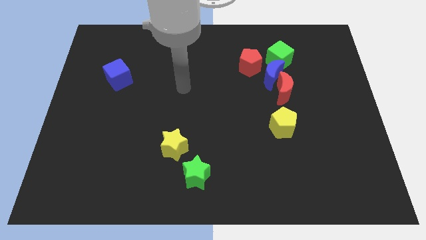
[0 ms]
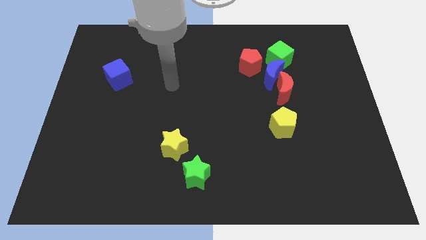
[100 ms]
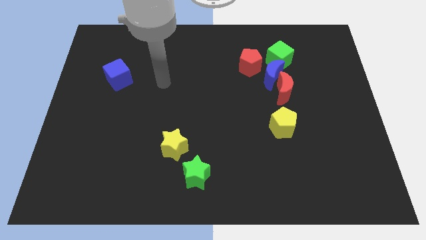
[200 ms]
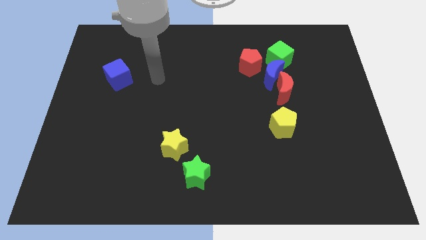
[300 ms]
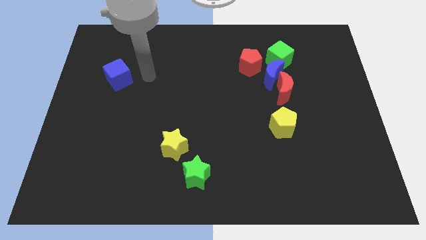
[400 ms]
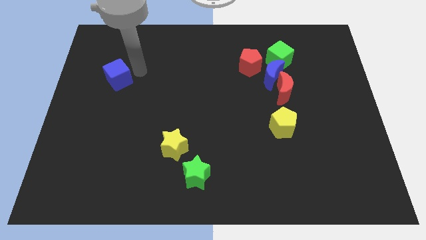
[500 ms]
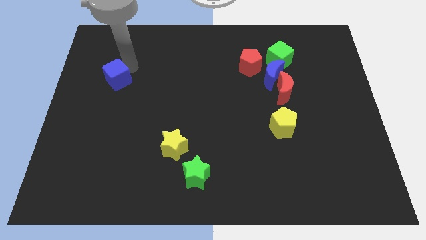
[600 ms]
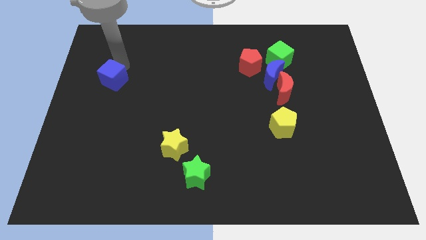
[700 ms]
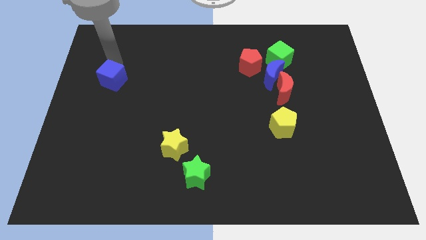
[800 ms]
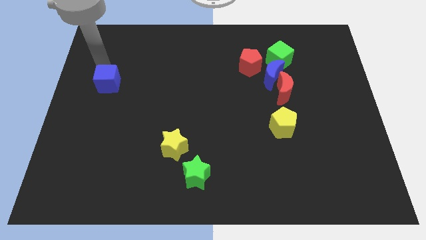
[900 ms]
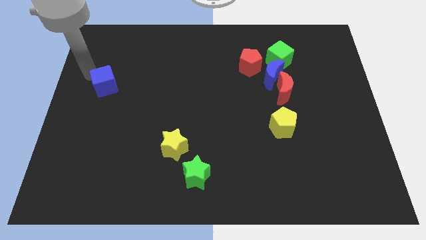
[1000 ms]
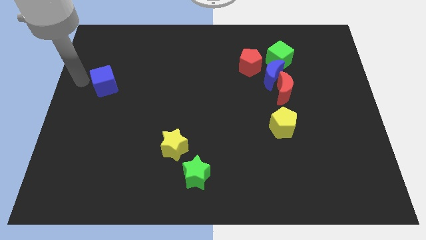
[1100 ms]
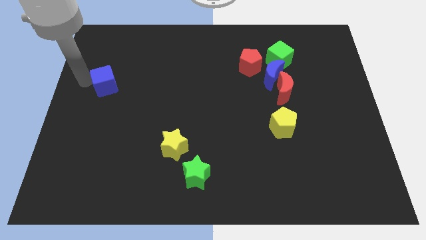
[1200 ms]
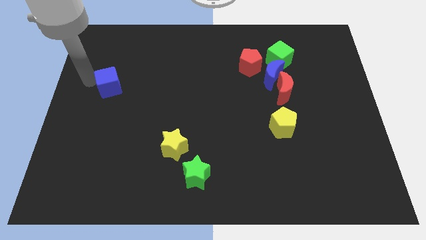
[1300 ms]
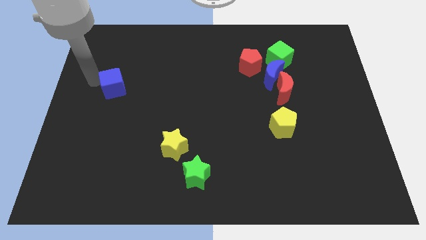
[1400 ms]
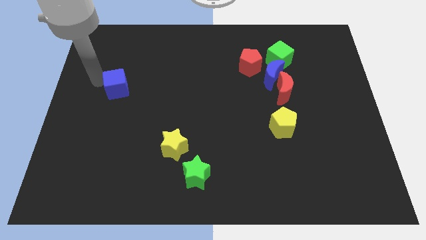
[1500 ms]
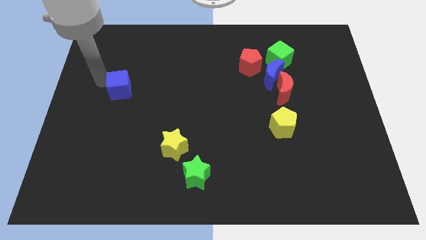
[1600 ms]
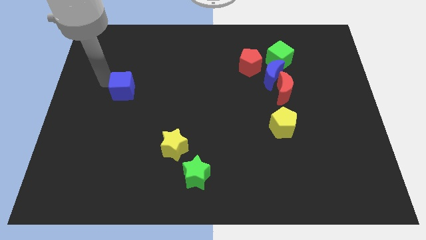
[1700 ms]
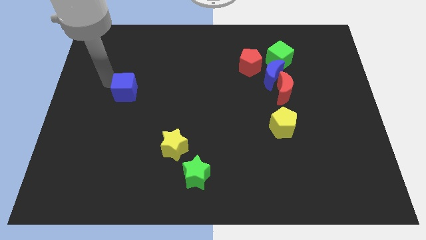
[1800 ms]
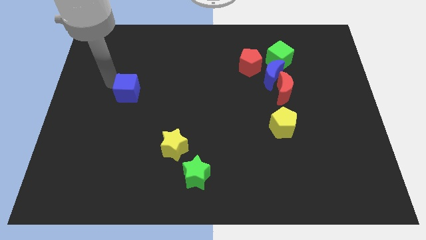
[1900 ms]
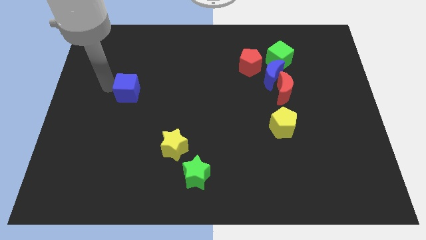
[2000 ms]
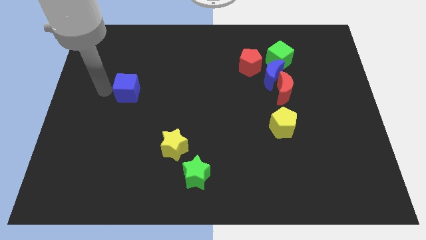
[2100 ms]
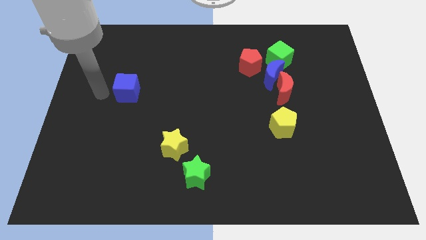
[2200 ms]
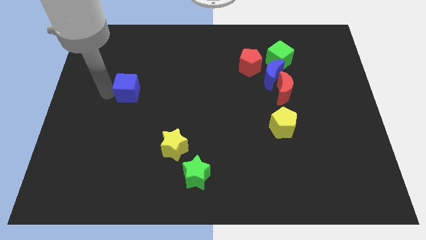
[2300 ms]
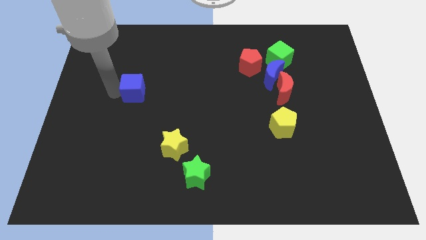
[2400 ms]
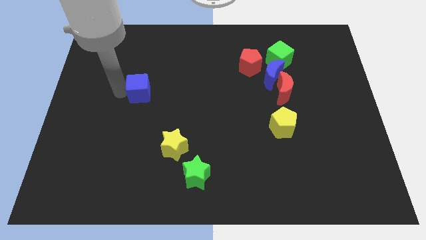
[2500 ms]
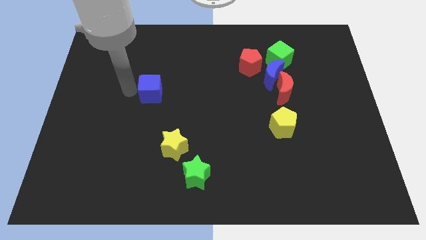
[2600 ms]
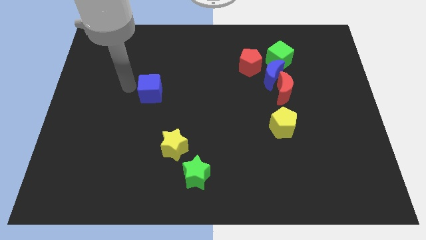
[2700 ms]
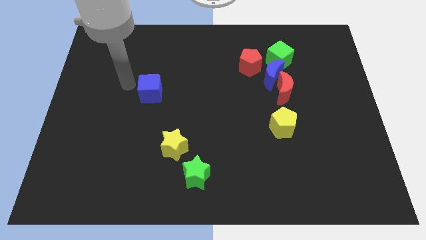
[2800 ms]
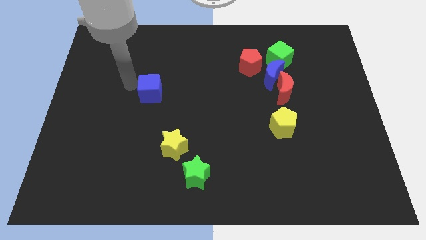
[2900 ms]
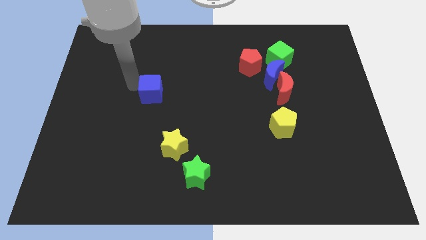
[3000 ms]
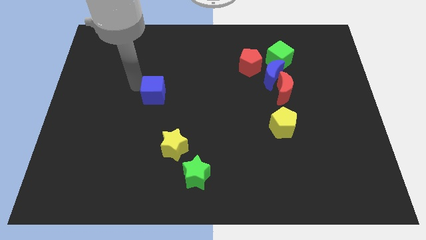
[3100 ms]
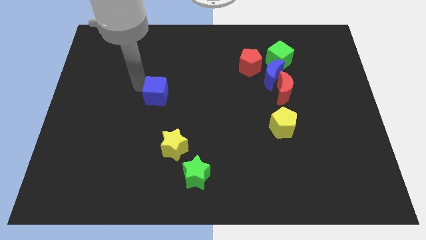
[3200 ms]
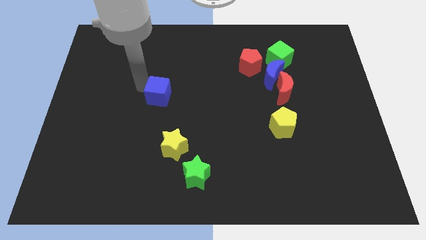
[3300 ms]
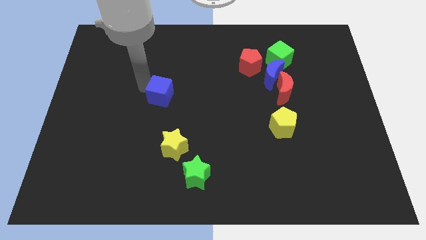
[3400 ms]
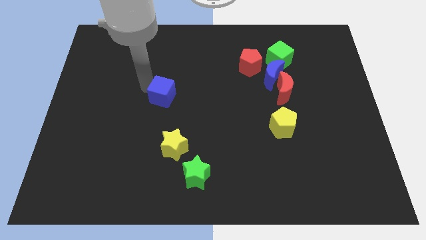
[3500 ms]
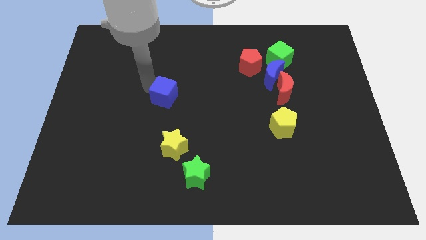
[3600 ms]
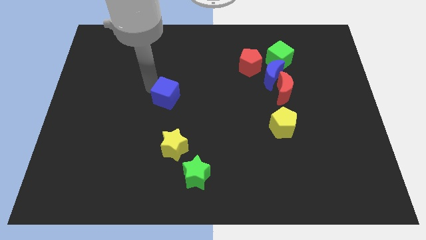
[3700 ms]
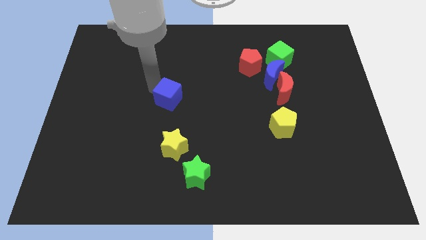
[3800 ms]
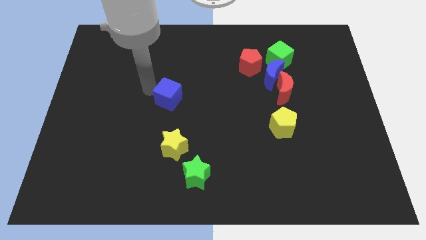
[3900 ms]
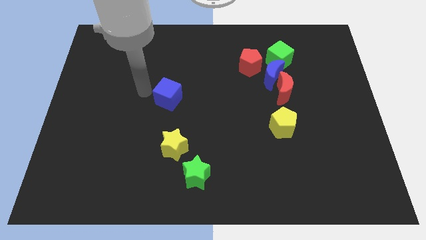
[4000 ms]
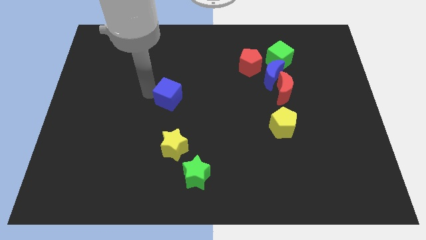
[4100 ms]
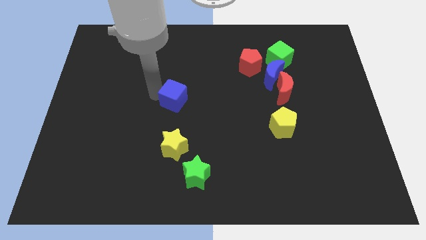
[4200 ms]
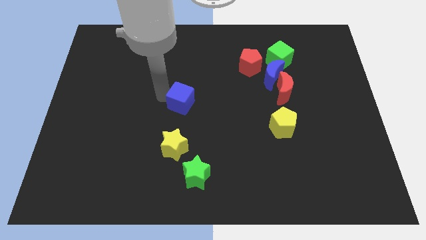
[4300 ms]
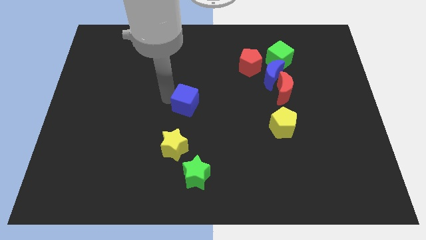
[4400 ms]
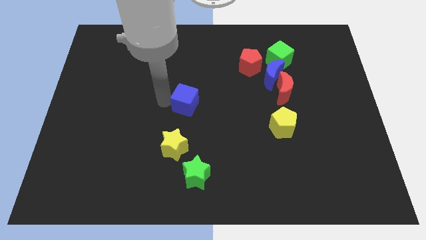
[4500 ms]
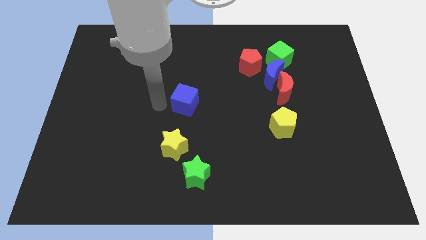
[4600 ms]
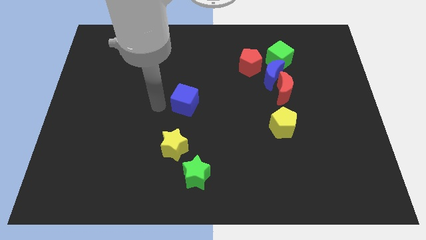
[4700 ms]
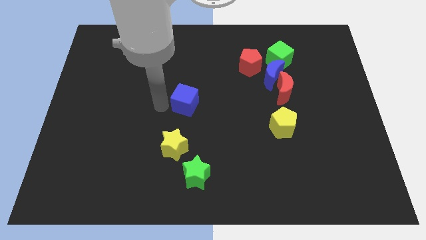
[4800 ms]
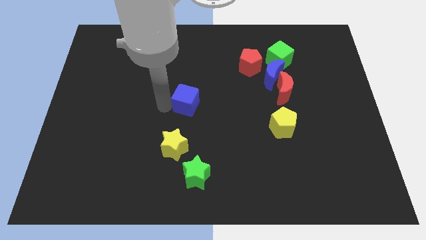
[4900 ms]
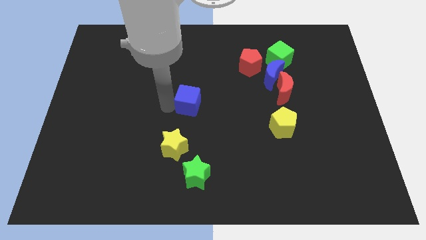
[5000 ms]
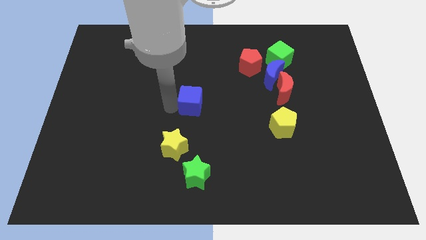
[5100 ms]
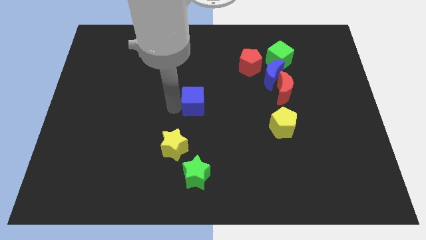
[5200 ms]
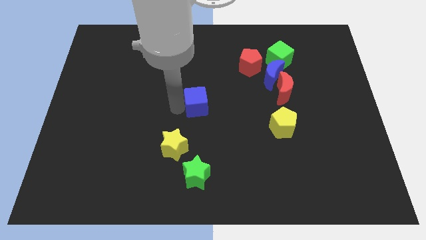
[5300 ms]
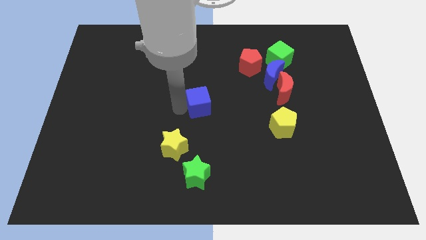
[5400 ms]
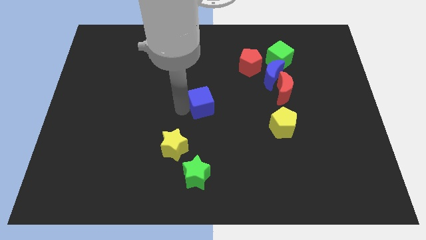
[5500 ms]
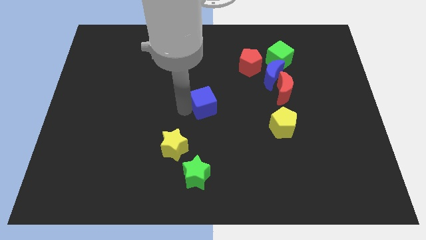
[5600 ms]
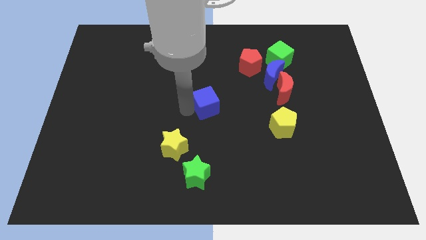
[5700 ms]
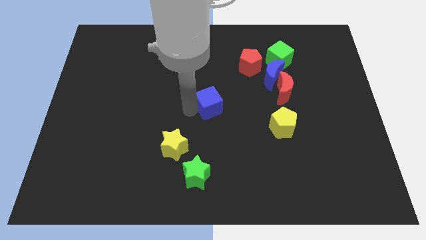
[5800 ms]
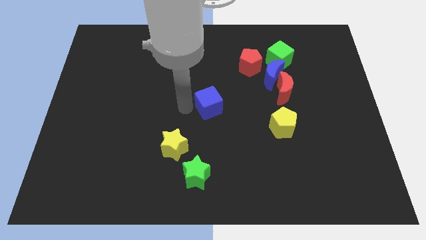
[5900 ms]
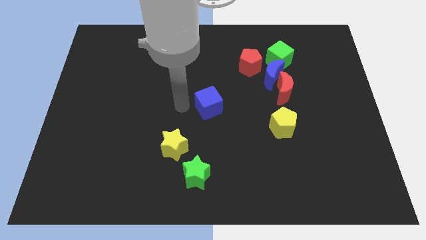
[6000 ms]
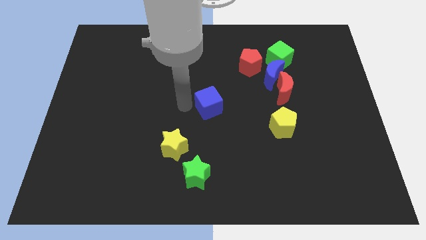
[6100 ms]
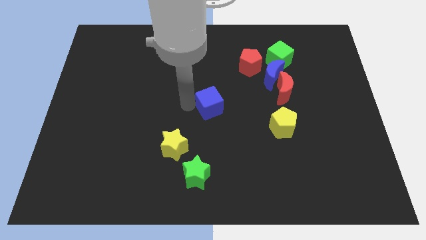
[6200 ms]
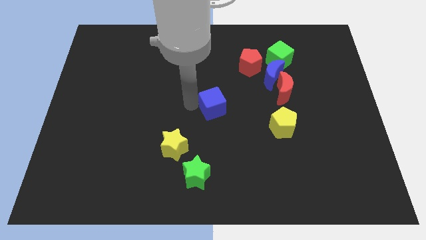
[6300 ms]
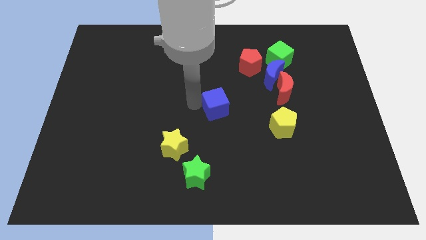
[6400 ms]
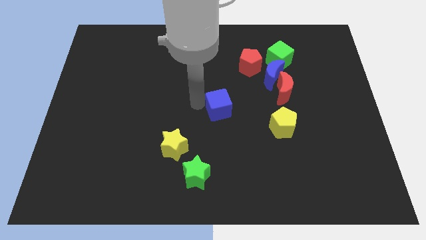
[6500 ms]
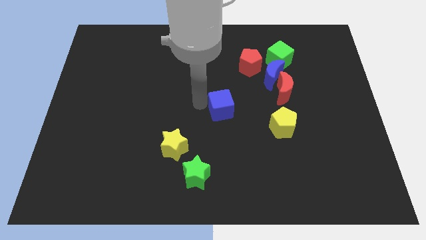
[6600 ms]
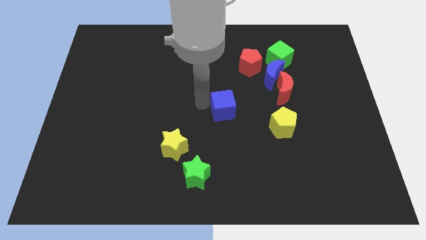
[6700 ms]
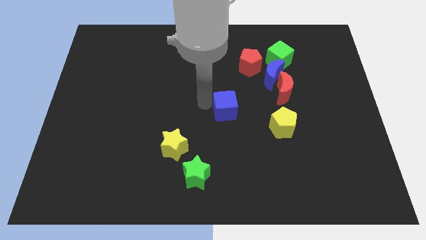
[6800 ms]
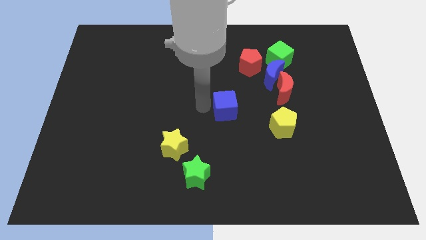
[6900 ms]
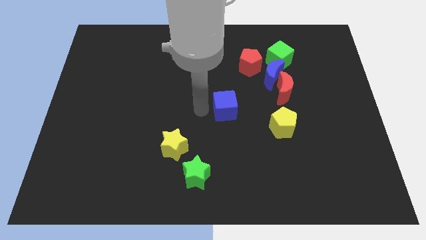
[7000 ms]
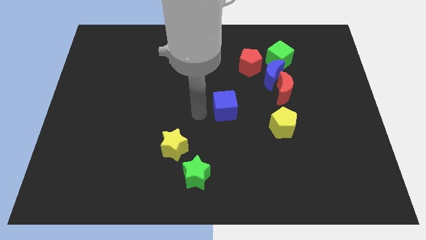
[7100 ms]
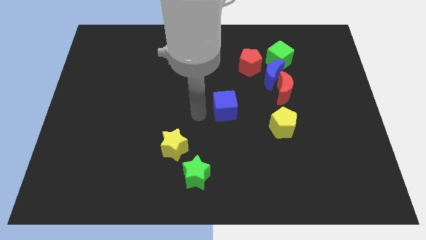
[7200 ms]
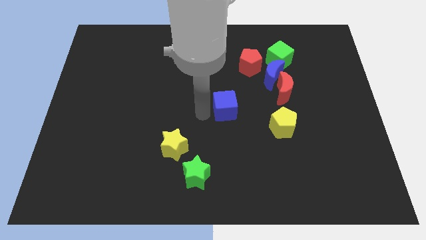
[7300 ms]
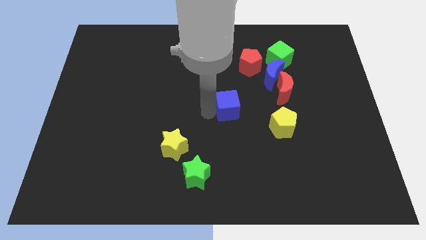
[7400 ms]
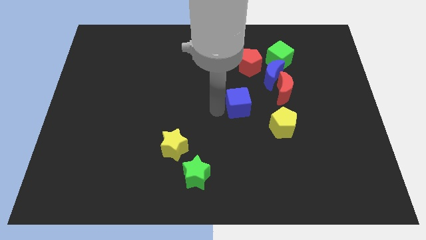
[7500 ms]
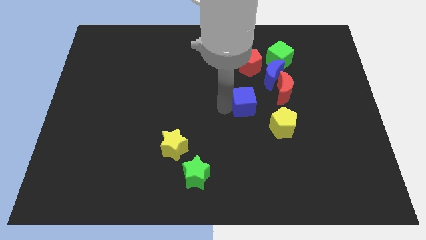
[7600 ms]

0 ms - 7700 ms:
put the blue cube diagonally down and to the left of the red moon

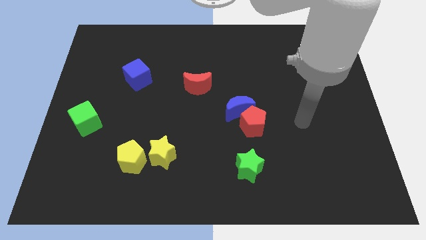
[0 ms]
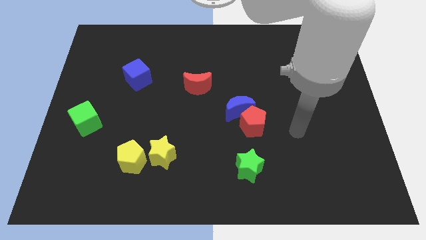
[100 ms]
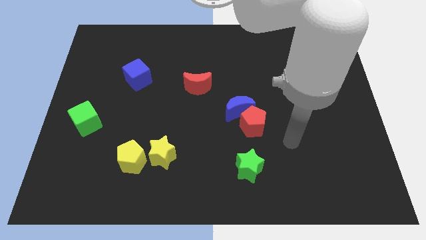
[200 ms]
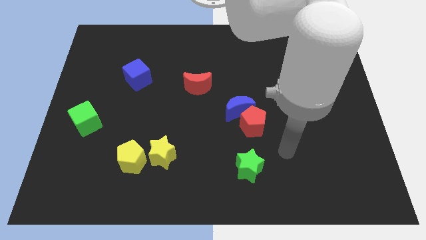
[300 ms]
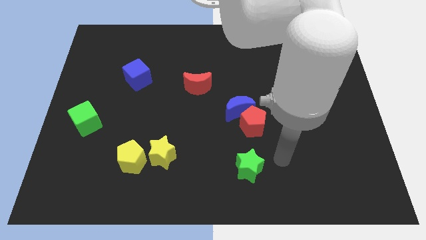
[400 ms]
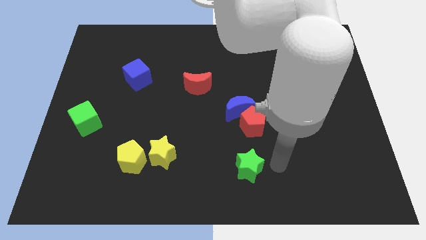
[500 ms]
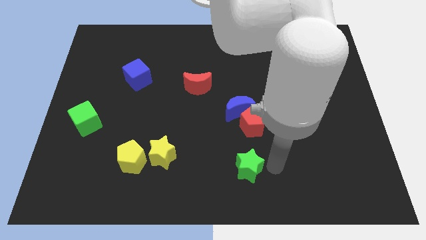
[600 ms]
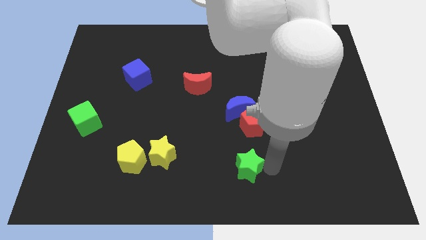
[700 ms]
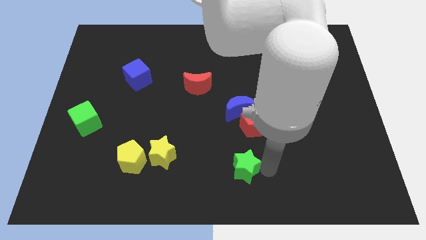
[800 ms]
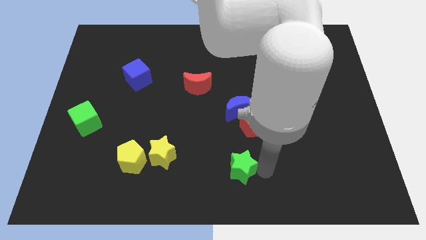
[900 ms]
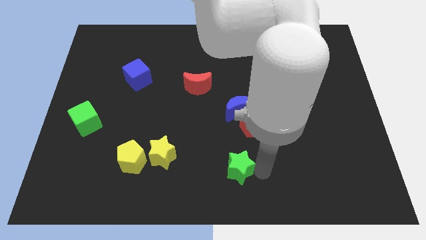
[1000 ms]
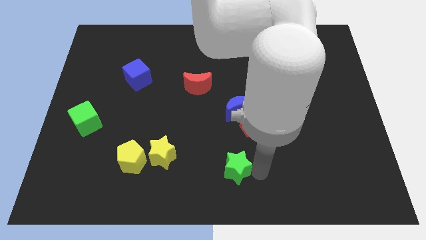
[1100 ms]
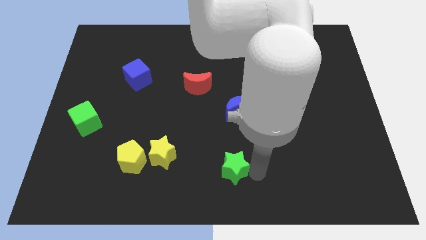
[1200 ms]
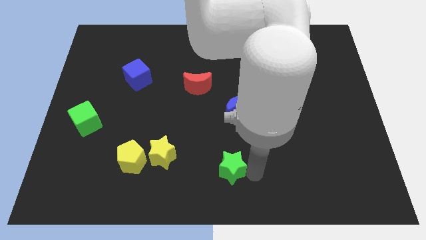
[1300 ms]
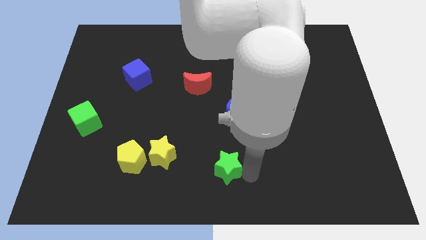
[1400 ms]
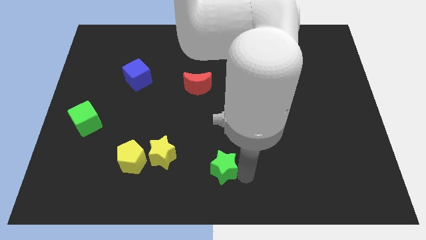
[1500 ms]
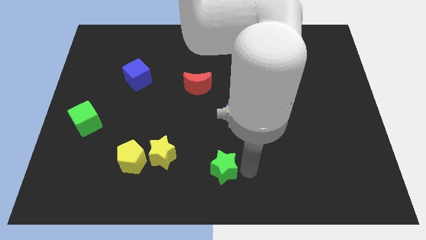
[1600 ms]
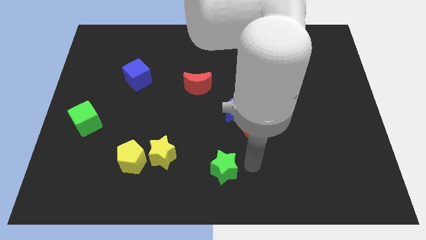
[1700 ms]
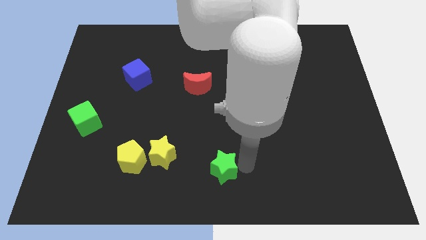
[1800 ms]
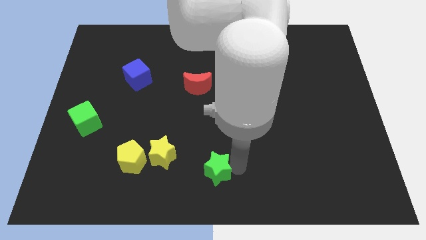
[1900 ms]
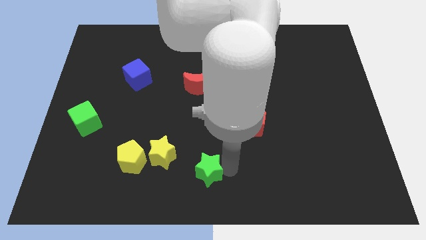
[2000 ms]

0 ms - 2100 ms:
slide the green star to the bottom right of the yellow star
